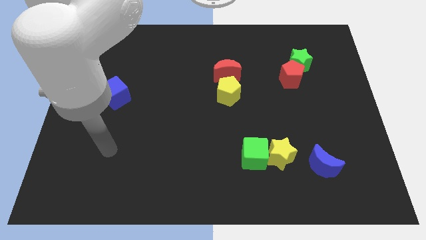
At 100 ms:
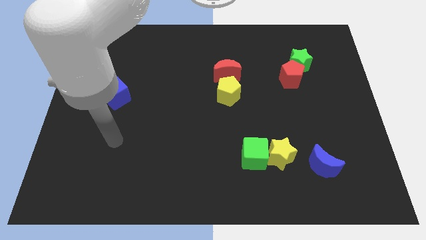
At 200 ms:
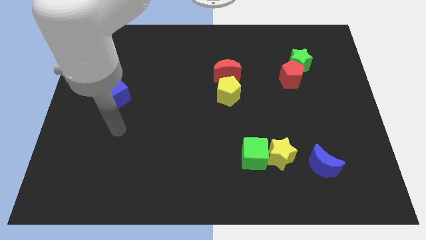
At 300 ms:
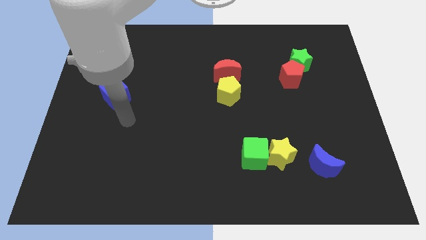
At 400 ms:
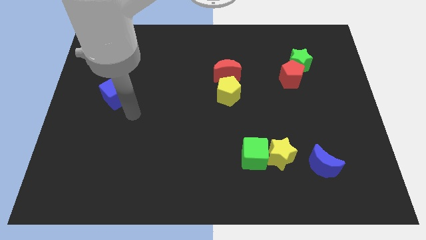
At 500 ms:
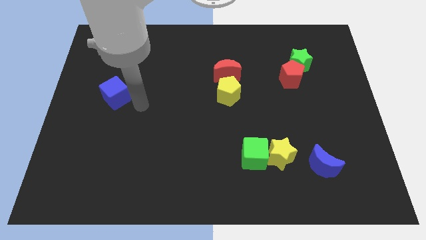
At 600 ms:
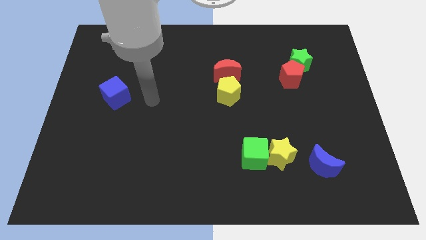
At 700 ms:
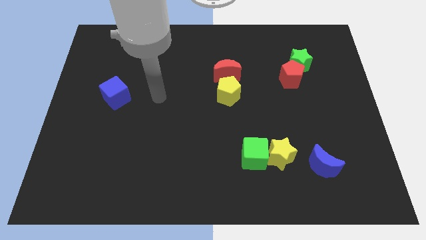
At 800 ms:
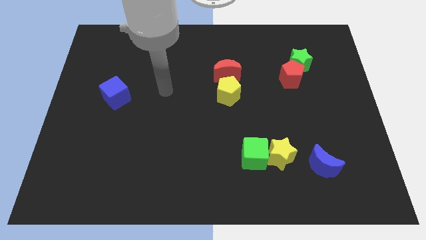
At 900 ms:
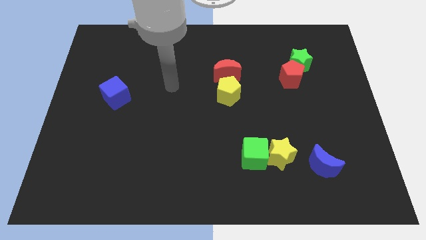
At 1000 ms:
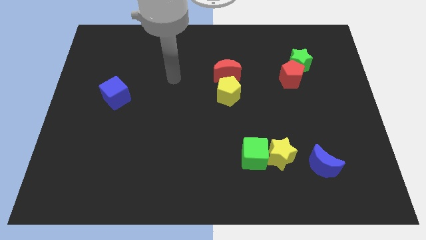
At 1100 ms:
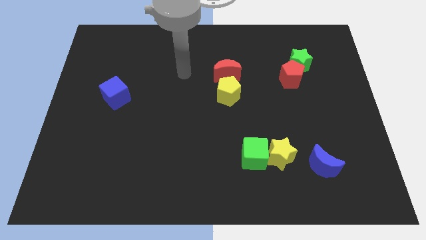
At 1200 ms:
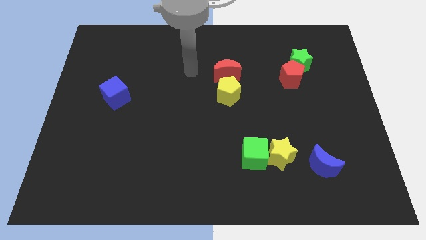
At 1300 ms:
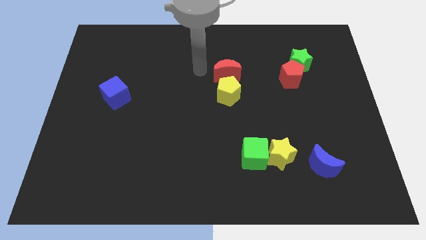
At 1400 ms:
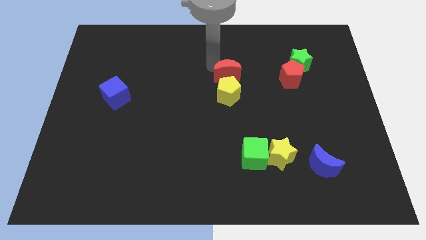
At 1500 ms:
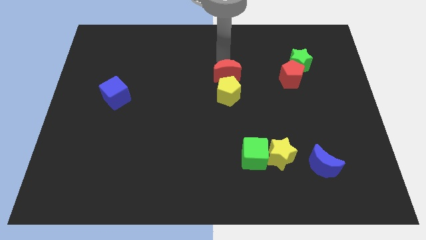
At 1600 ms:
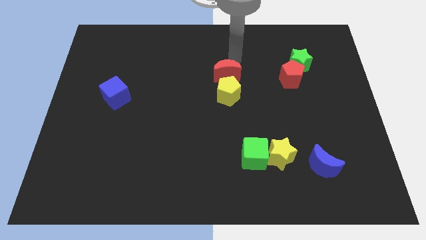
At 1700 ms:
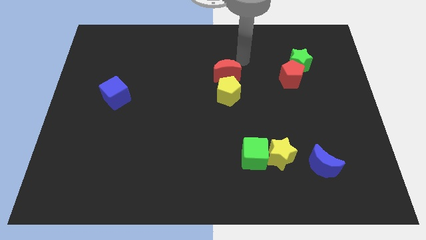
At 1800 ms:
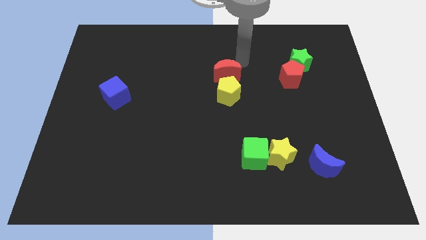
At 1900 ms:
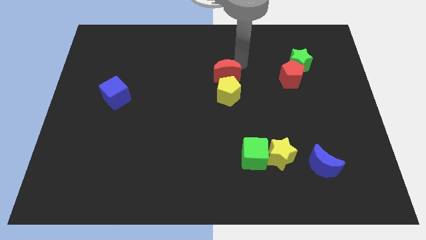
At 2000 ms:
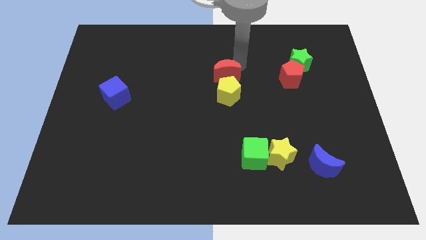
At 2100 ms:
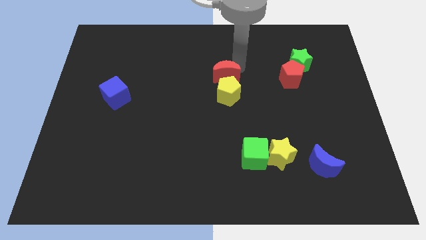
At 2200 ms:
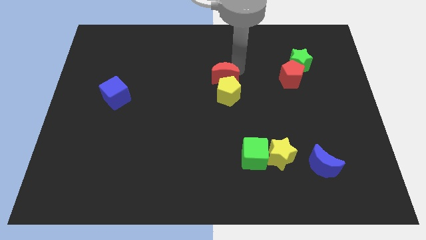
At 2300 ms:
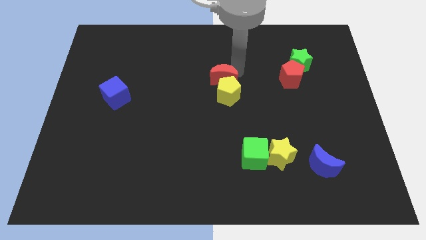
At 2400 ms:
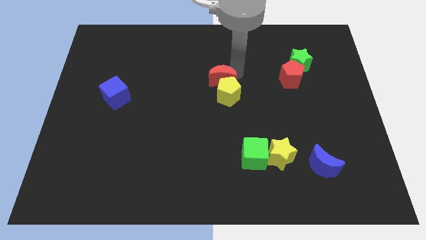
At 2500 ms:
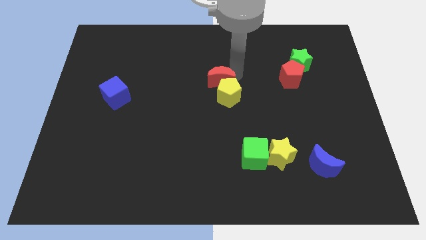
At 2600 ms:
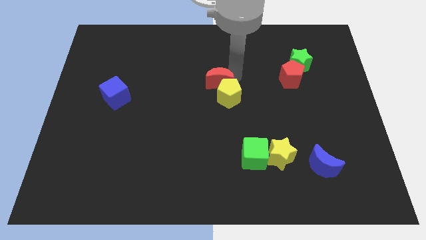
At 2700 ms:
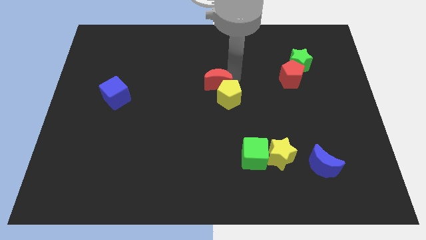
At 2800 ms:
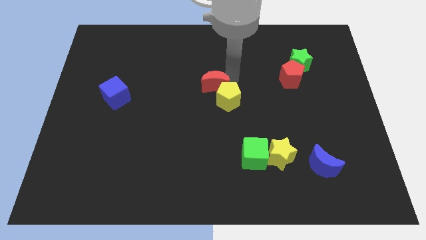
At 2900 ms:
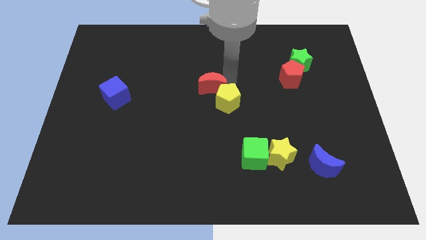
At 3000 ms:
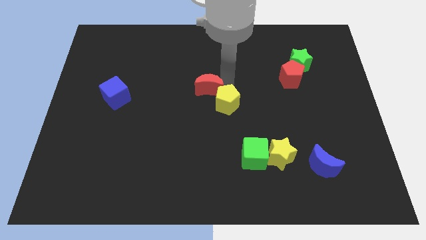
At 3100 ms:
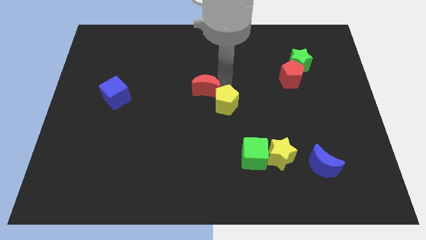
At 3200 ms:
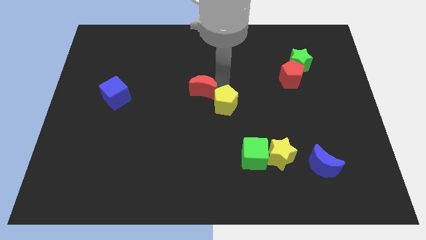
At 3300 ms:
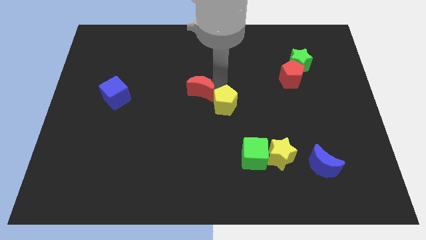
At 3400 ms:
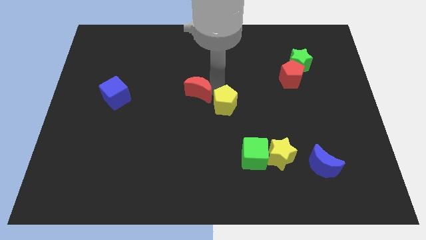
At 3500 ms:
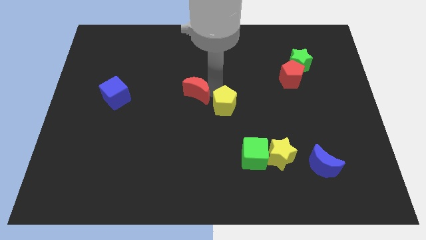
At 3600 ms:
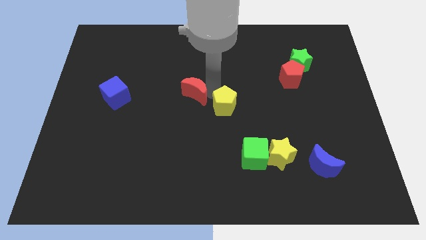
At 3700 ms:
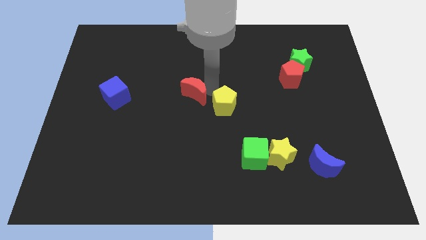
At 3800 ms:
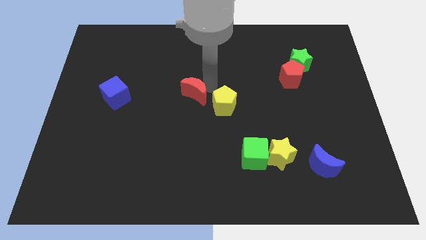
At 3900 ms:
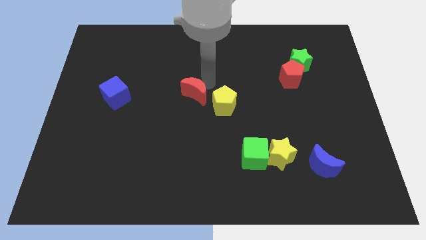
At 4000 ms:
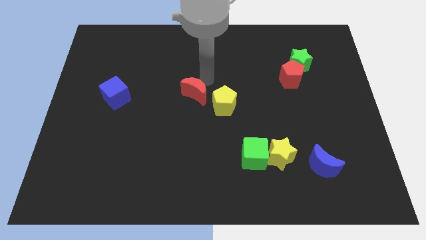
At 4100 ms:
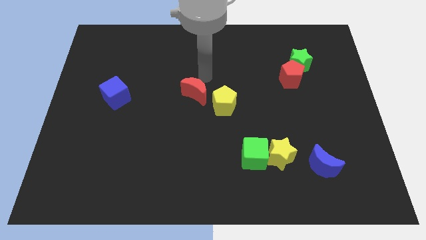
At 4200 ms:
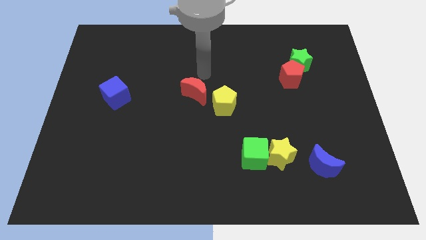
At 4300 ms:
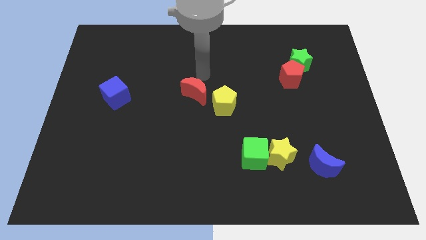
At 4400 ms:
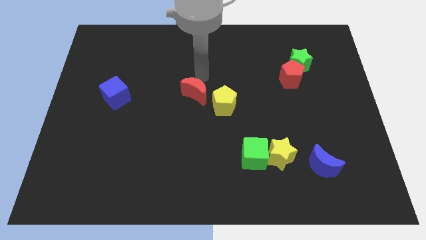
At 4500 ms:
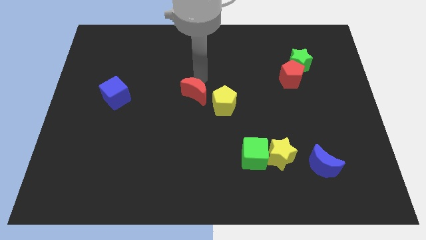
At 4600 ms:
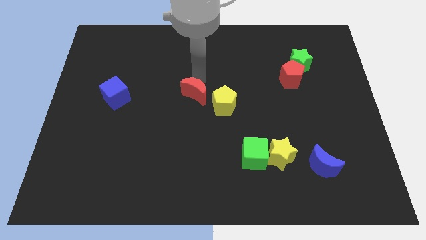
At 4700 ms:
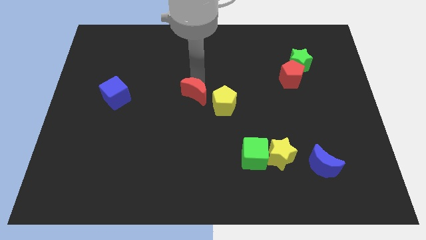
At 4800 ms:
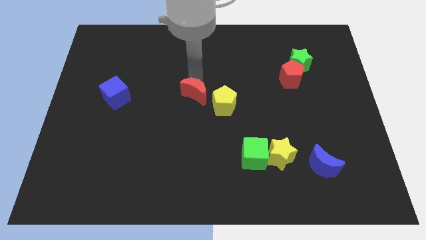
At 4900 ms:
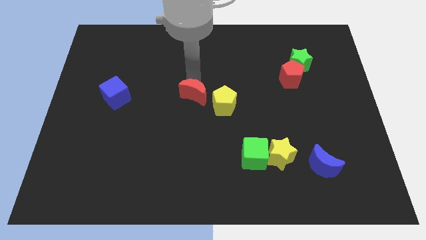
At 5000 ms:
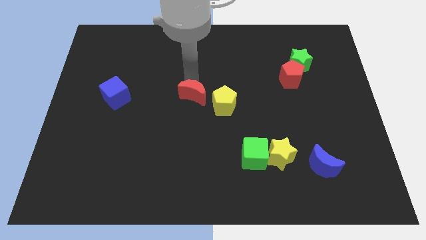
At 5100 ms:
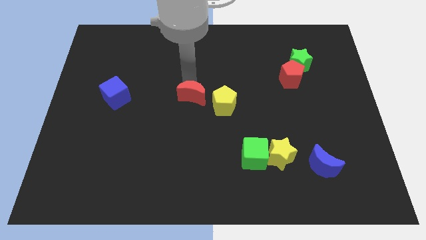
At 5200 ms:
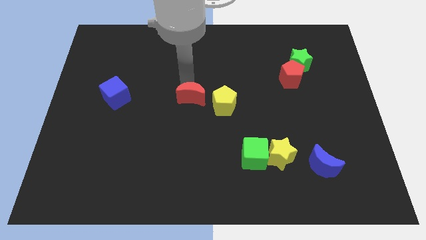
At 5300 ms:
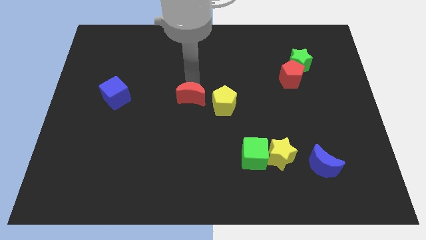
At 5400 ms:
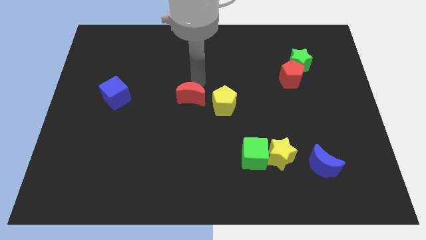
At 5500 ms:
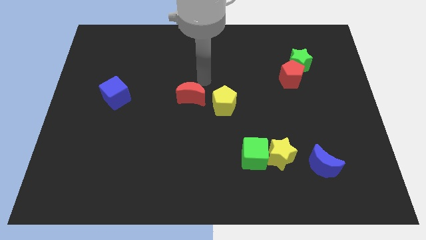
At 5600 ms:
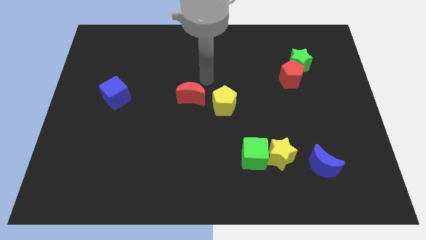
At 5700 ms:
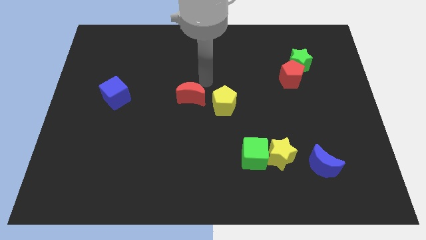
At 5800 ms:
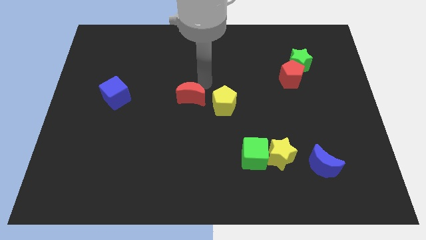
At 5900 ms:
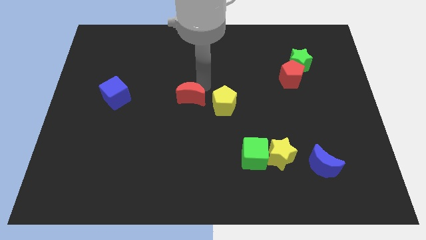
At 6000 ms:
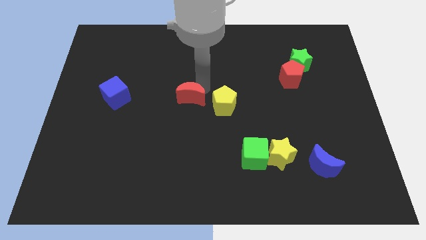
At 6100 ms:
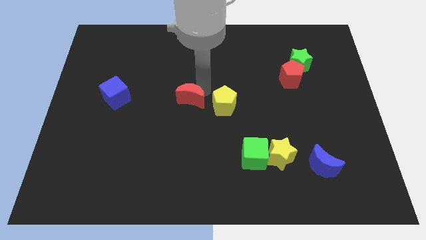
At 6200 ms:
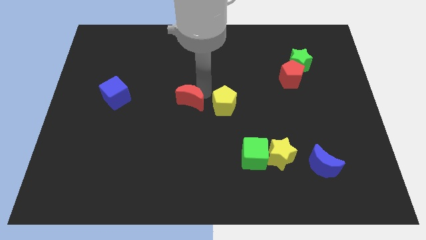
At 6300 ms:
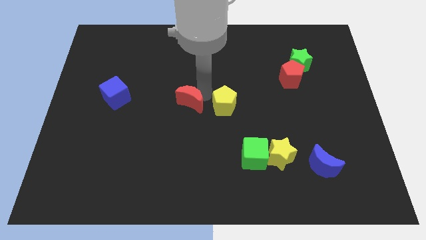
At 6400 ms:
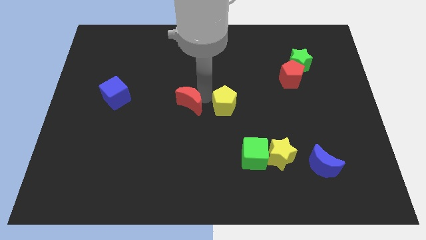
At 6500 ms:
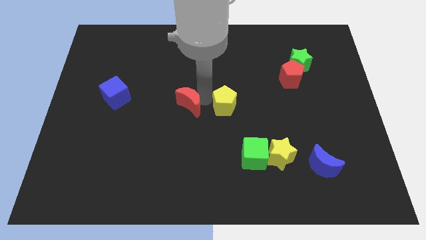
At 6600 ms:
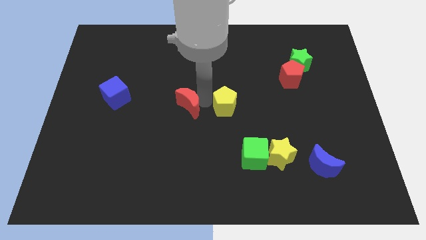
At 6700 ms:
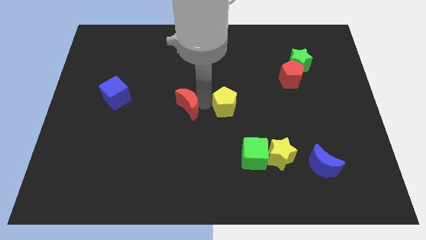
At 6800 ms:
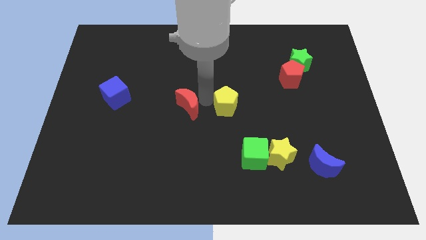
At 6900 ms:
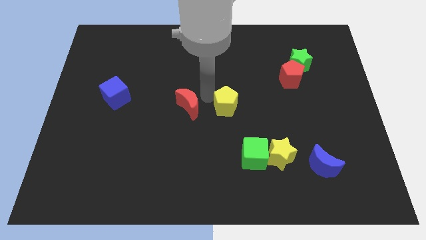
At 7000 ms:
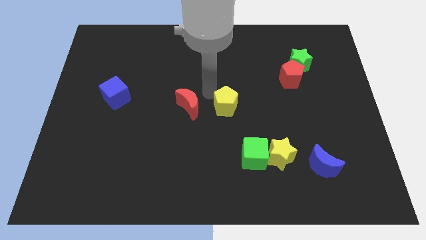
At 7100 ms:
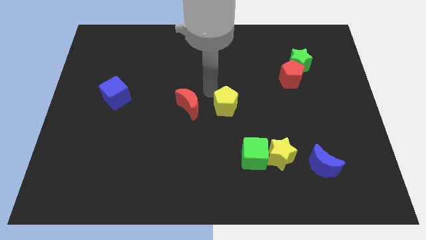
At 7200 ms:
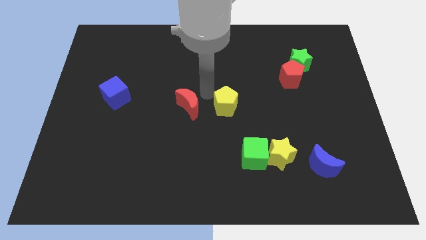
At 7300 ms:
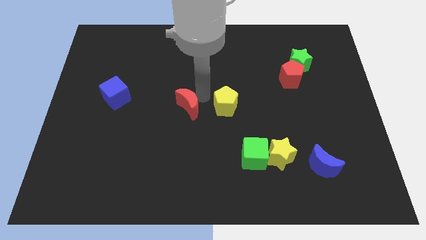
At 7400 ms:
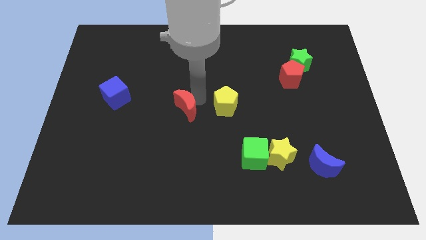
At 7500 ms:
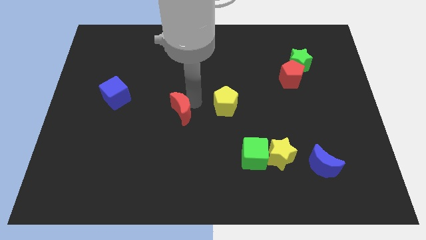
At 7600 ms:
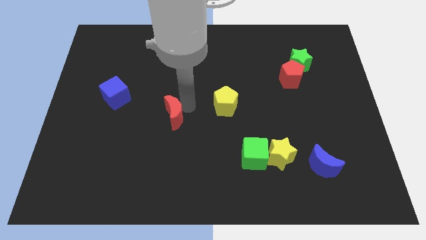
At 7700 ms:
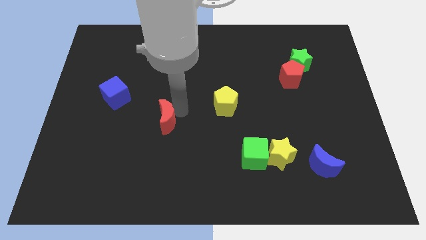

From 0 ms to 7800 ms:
slide the red moon down and to the left

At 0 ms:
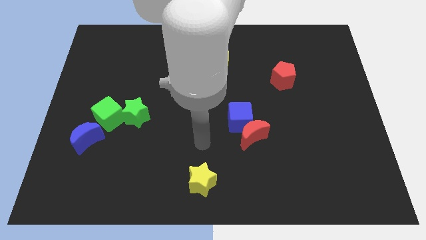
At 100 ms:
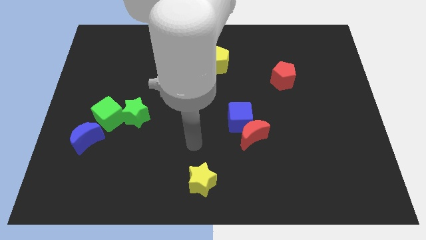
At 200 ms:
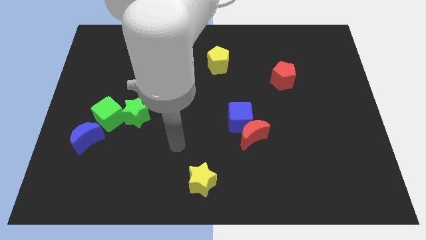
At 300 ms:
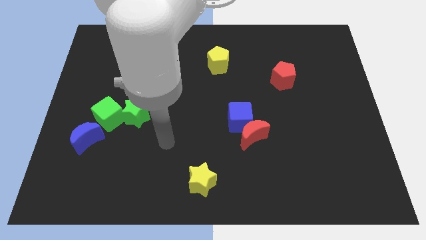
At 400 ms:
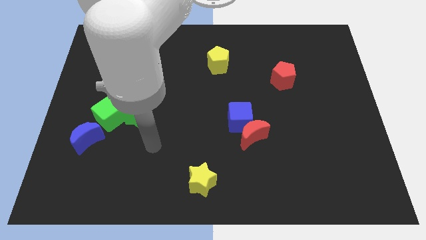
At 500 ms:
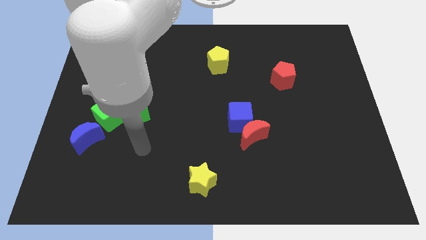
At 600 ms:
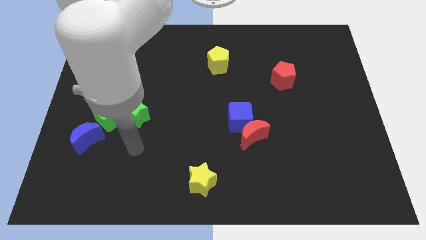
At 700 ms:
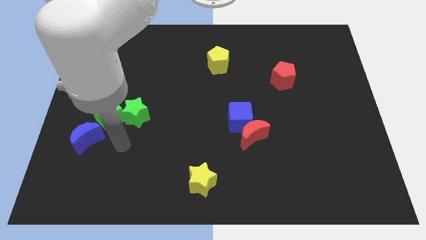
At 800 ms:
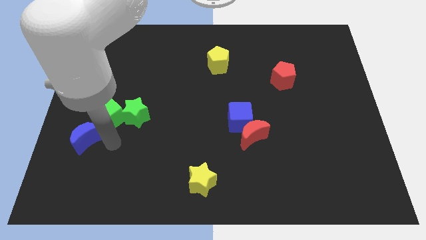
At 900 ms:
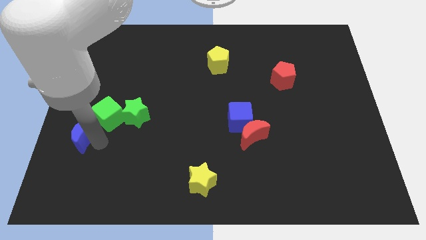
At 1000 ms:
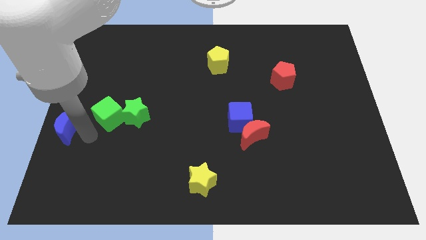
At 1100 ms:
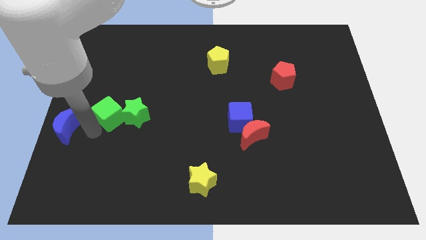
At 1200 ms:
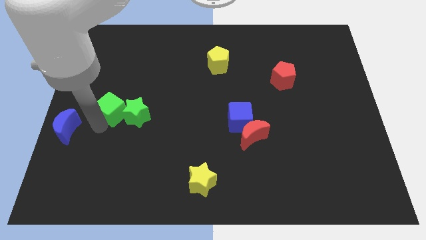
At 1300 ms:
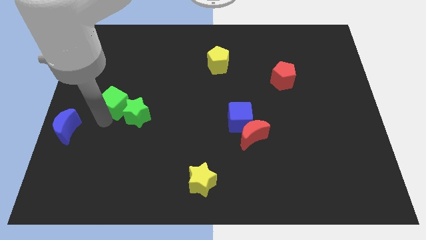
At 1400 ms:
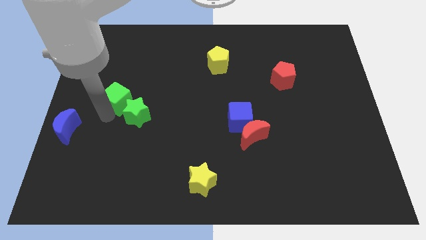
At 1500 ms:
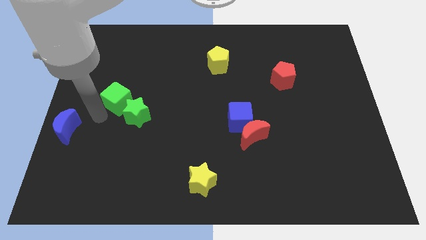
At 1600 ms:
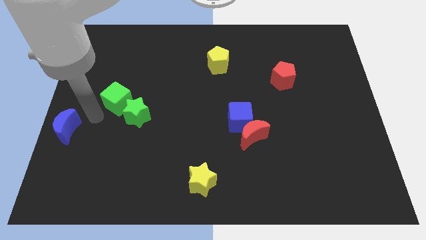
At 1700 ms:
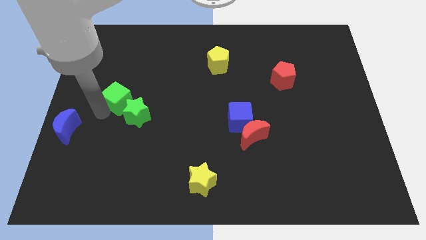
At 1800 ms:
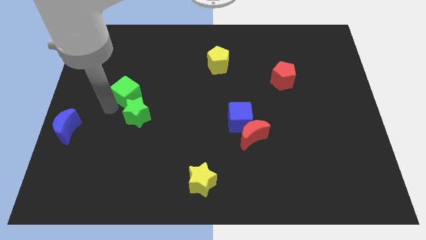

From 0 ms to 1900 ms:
move the green cube a little bit diagonally upwards and right
